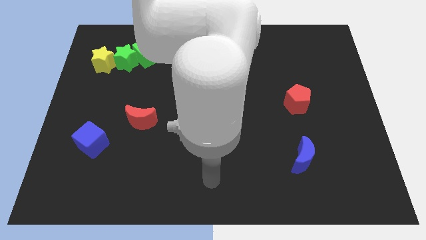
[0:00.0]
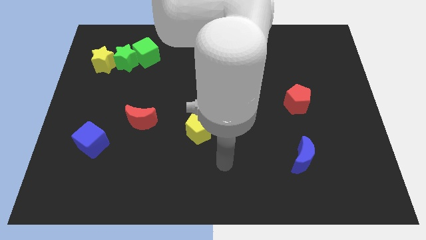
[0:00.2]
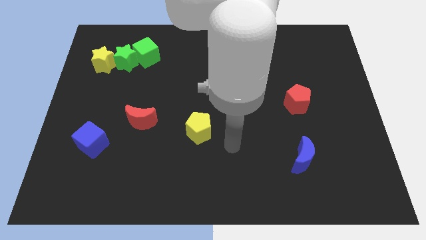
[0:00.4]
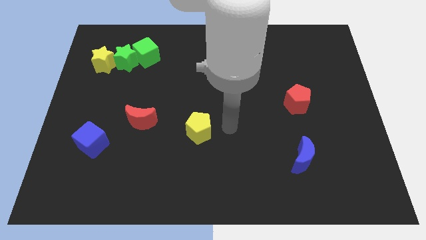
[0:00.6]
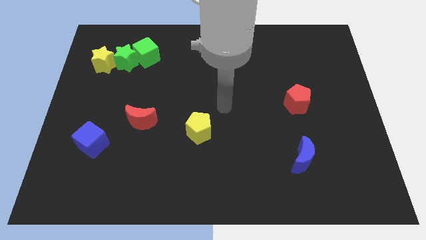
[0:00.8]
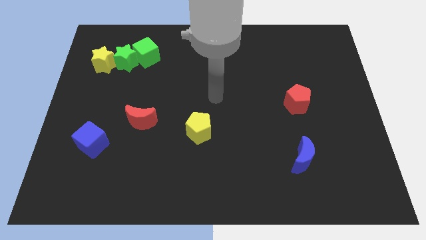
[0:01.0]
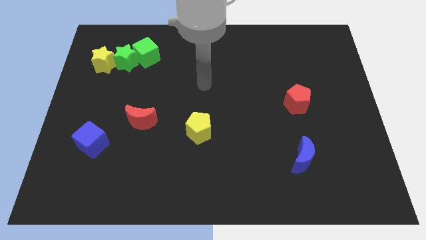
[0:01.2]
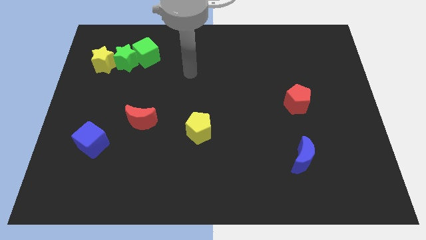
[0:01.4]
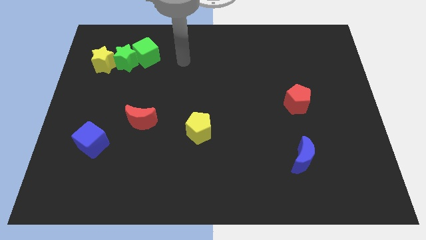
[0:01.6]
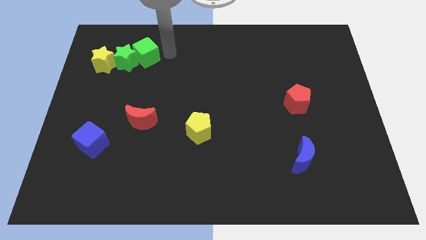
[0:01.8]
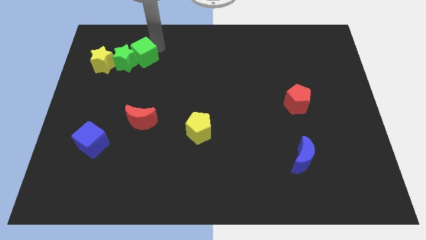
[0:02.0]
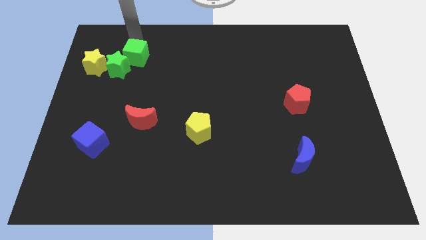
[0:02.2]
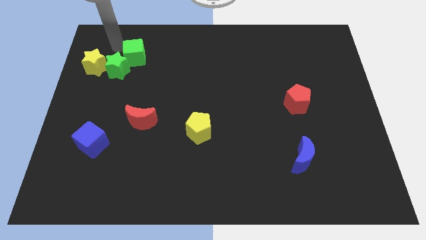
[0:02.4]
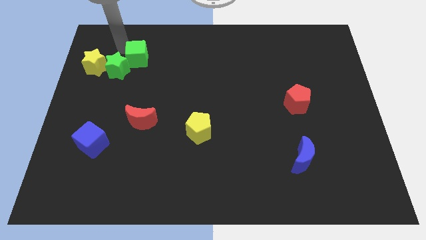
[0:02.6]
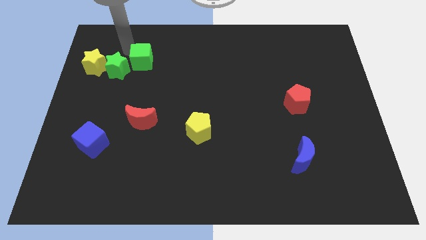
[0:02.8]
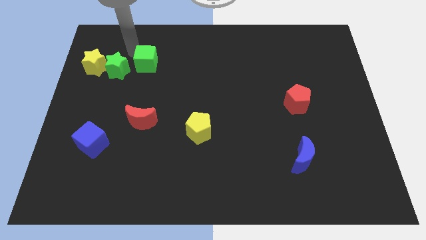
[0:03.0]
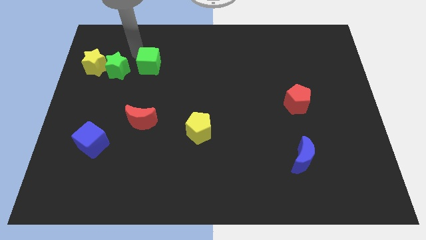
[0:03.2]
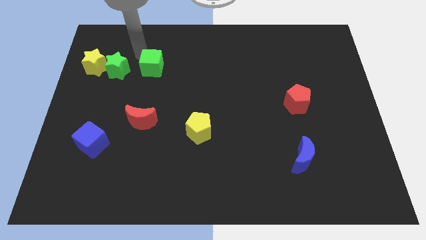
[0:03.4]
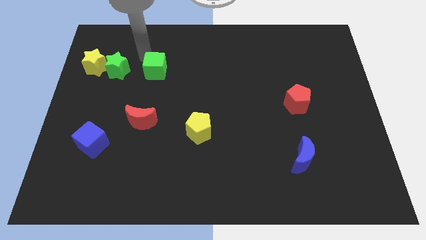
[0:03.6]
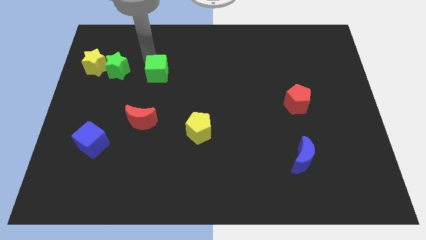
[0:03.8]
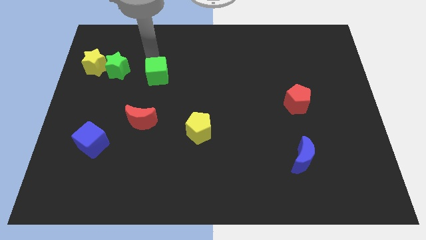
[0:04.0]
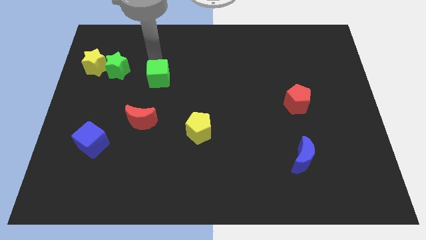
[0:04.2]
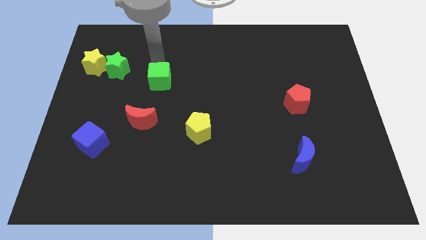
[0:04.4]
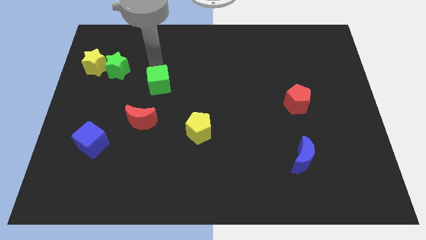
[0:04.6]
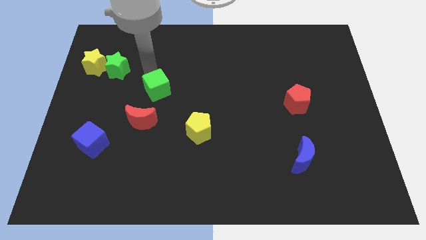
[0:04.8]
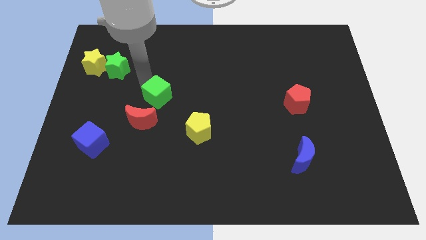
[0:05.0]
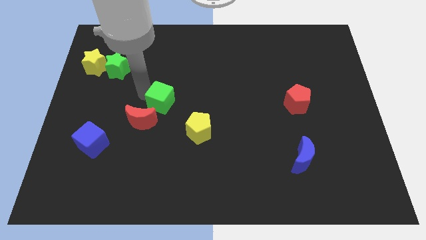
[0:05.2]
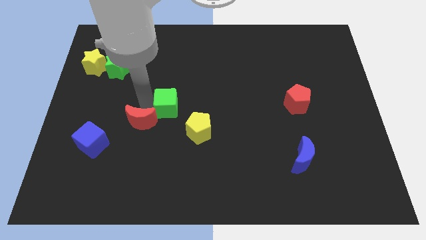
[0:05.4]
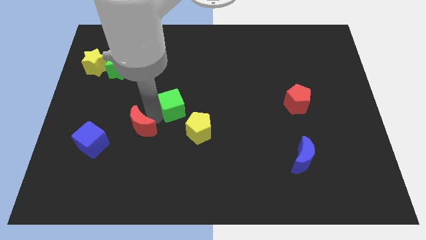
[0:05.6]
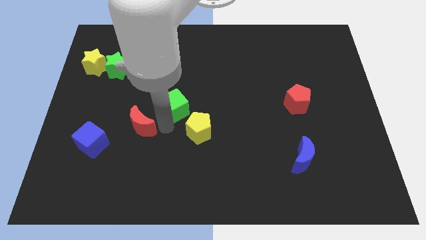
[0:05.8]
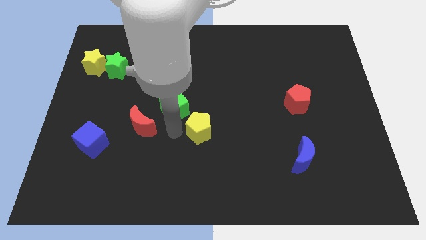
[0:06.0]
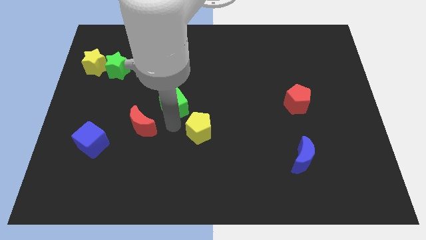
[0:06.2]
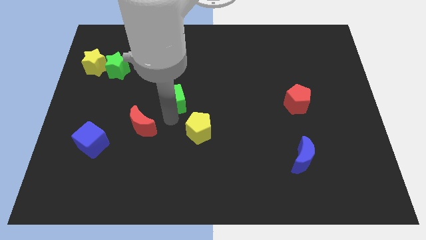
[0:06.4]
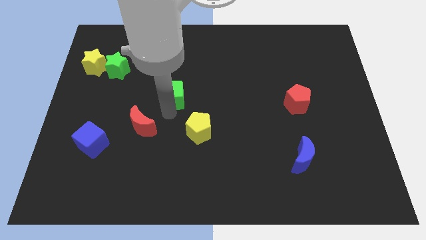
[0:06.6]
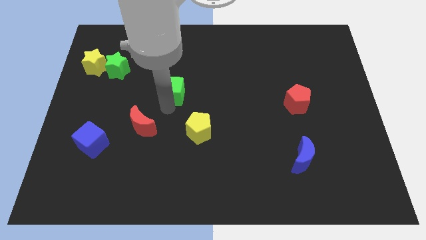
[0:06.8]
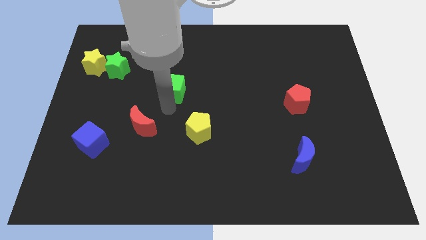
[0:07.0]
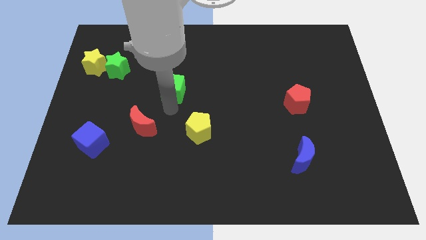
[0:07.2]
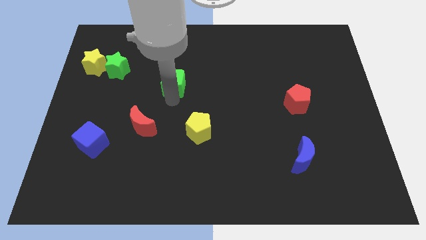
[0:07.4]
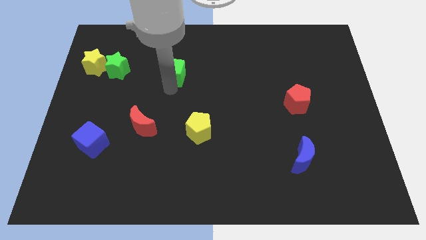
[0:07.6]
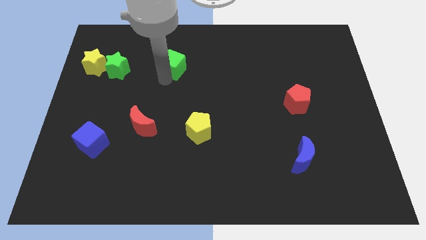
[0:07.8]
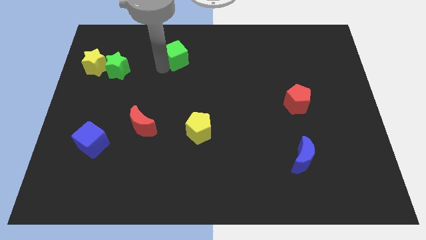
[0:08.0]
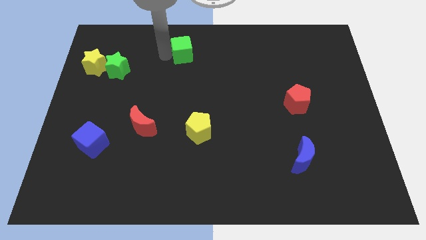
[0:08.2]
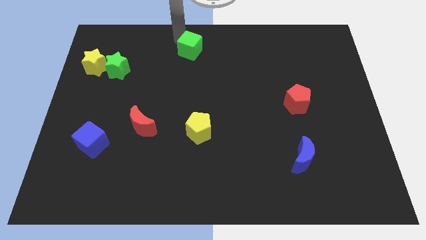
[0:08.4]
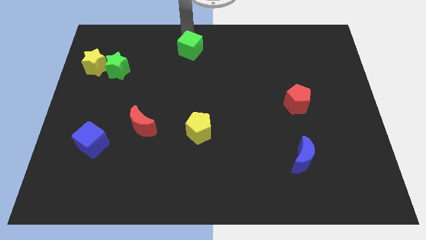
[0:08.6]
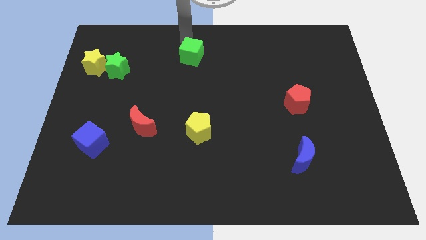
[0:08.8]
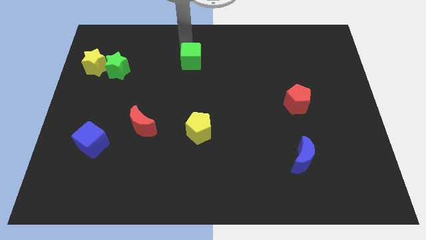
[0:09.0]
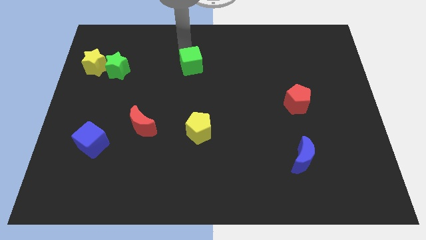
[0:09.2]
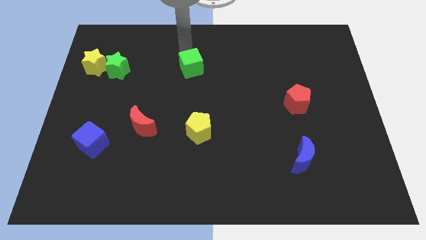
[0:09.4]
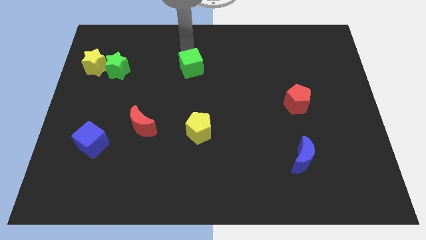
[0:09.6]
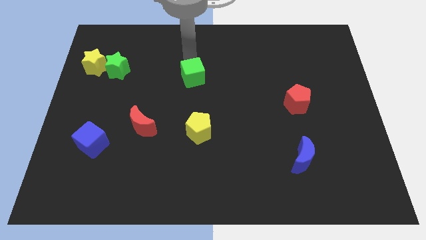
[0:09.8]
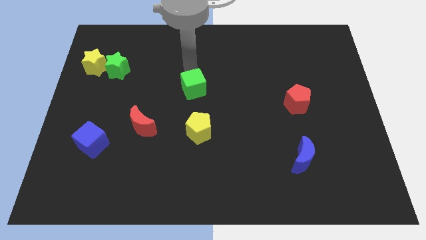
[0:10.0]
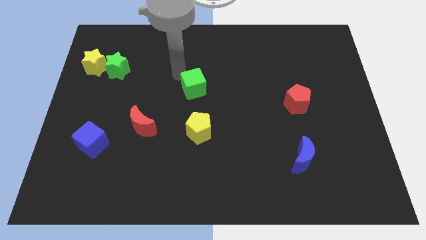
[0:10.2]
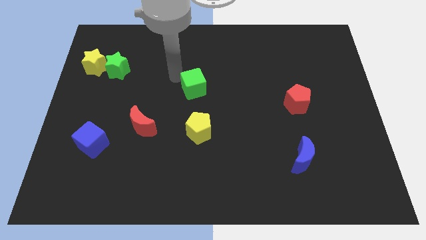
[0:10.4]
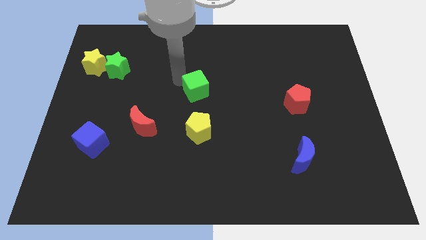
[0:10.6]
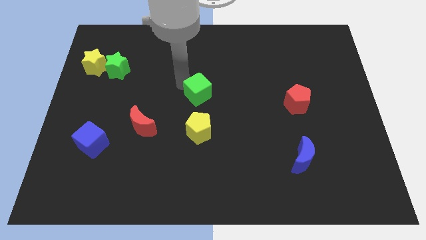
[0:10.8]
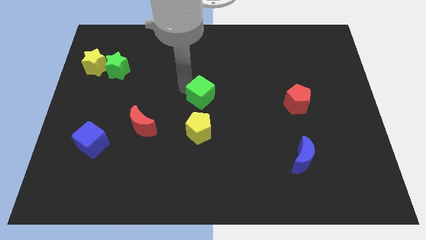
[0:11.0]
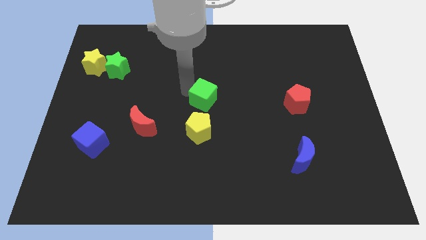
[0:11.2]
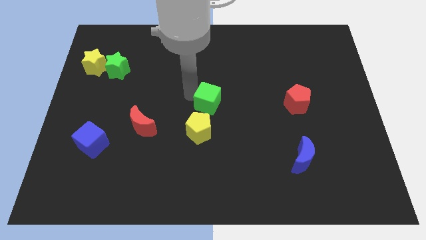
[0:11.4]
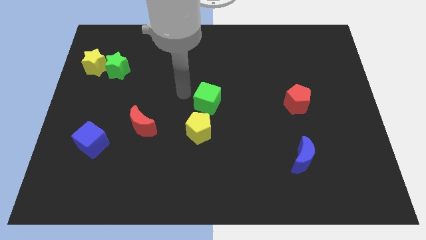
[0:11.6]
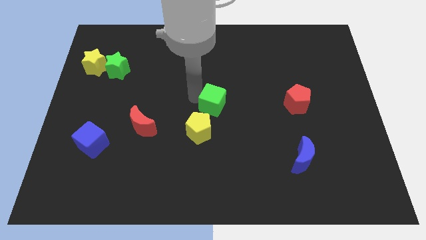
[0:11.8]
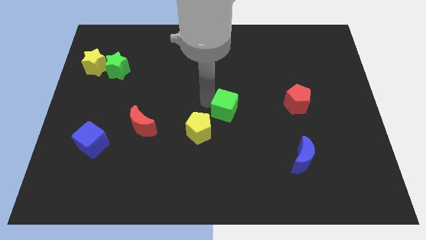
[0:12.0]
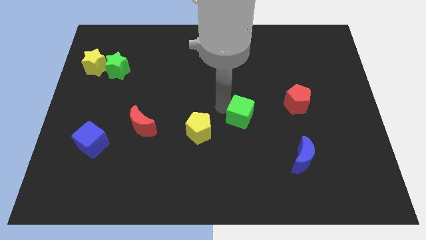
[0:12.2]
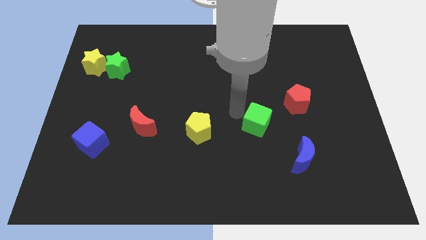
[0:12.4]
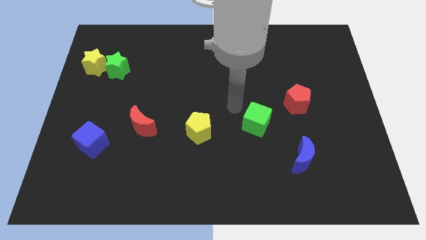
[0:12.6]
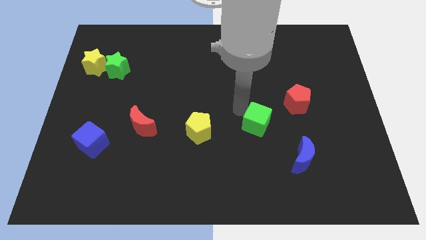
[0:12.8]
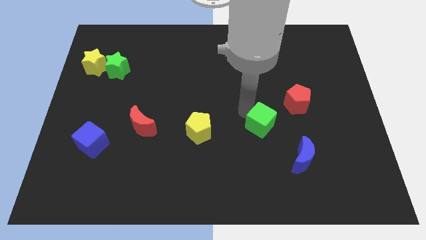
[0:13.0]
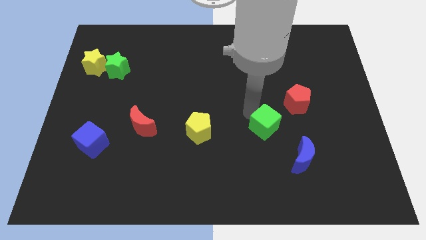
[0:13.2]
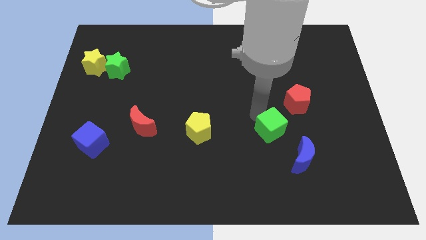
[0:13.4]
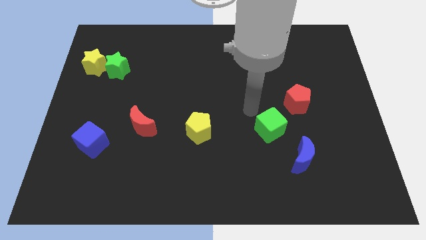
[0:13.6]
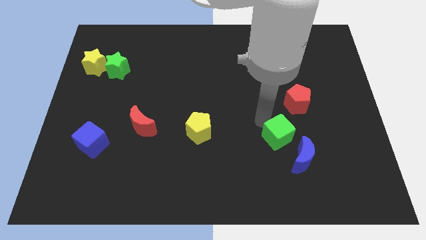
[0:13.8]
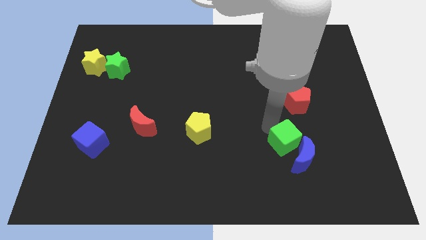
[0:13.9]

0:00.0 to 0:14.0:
move the green cube close to the blue moon

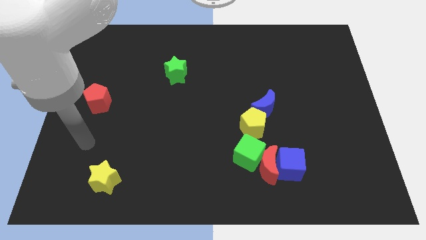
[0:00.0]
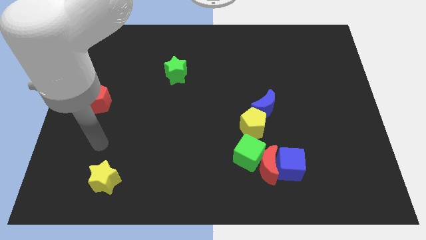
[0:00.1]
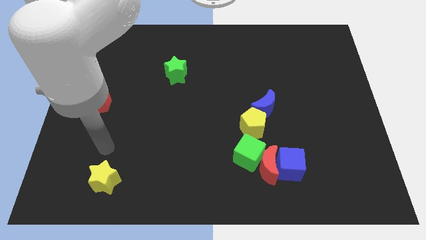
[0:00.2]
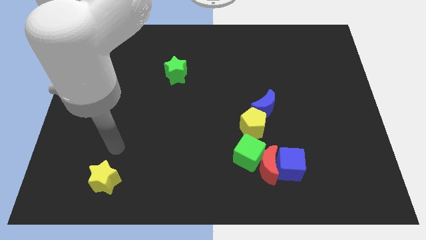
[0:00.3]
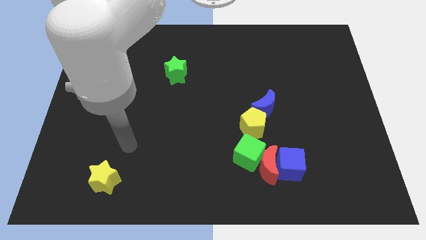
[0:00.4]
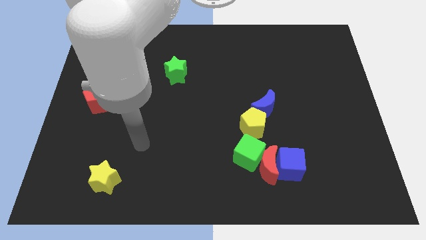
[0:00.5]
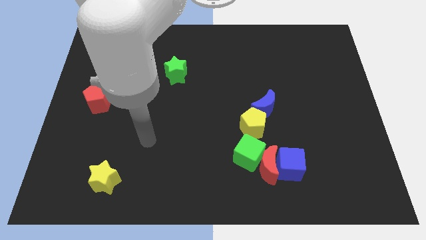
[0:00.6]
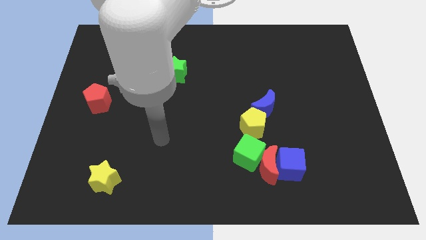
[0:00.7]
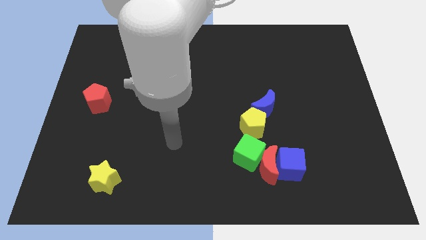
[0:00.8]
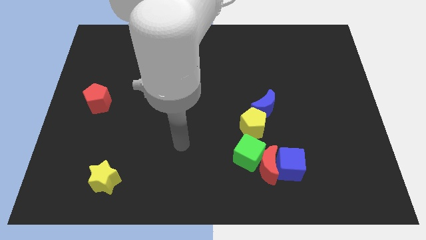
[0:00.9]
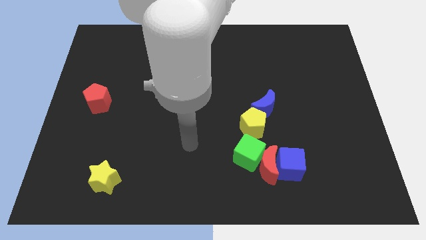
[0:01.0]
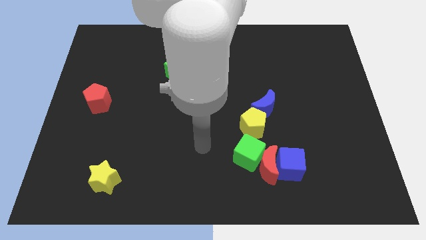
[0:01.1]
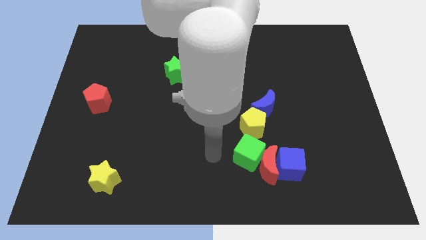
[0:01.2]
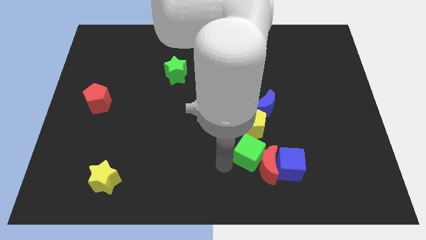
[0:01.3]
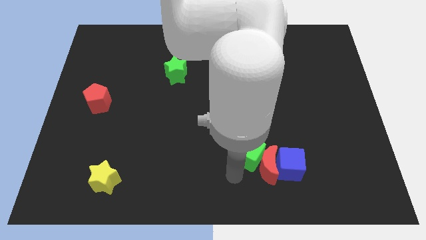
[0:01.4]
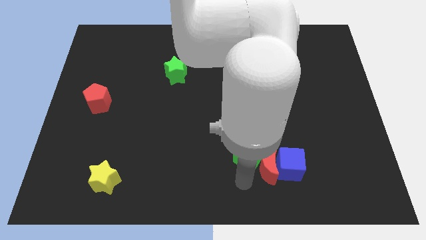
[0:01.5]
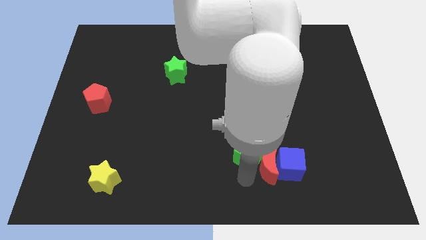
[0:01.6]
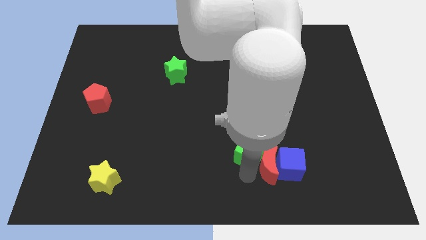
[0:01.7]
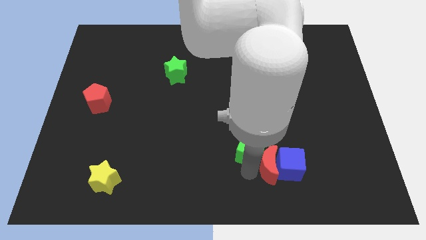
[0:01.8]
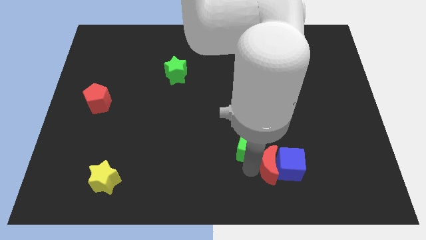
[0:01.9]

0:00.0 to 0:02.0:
slide the green cube to the yellow pentagon
